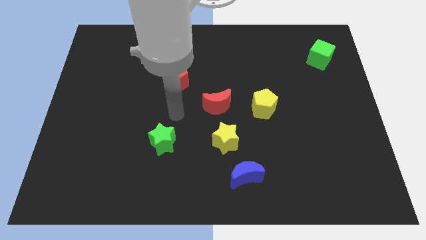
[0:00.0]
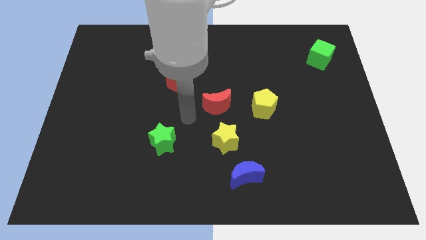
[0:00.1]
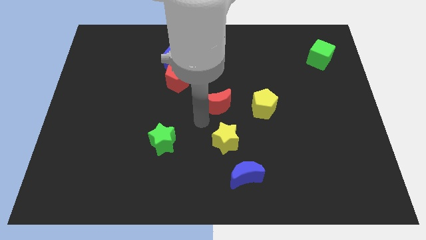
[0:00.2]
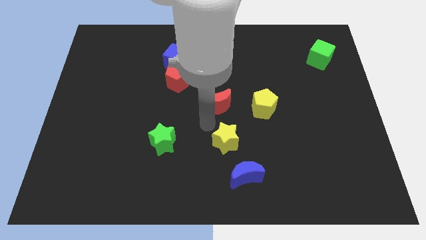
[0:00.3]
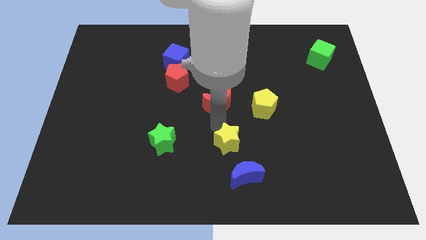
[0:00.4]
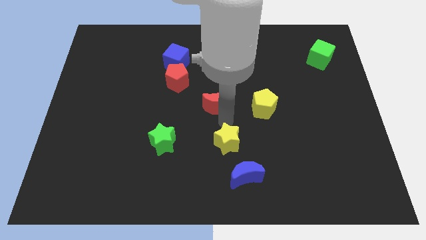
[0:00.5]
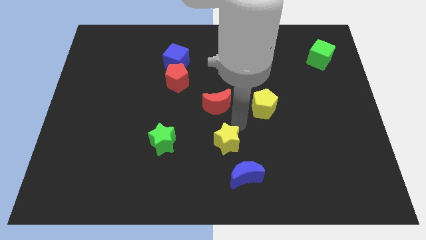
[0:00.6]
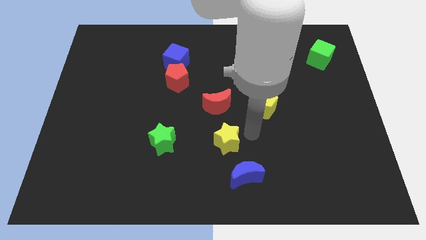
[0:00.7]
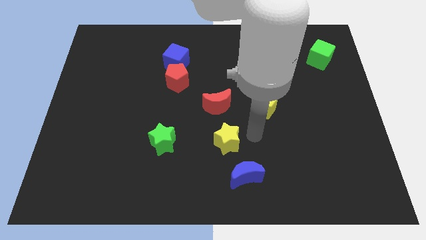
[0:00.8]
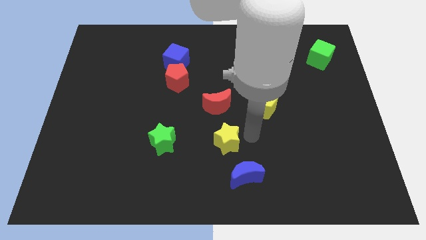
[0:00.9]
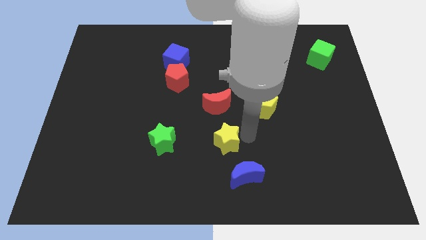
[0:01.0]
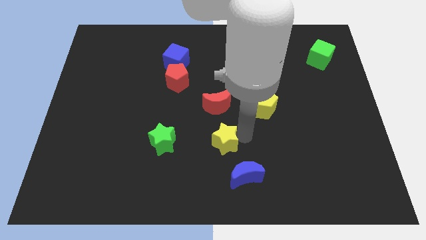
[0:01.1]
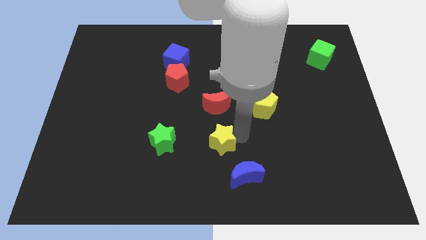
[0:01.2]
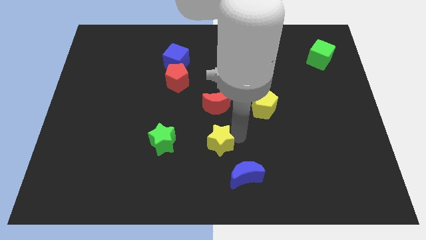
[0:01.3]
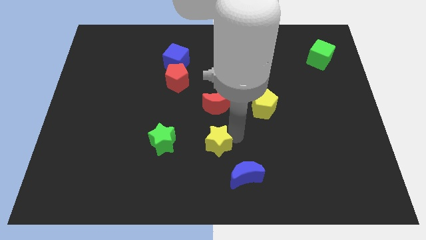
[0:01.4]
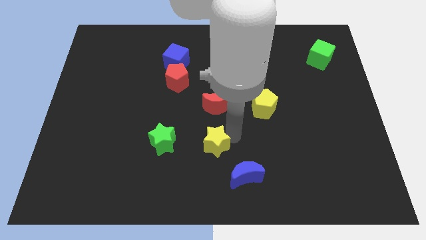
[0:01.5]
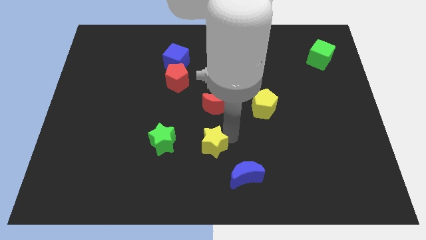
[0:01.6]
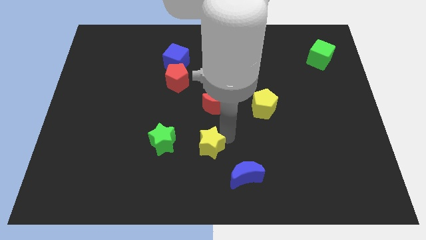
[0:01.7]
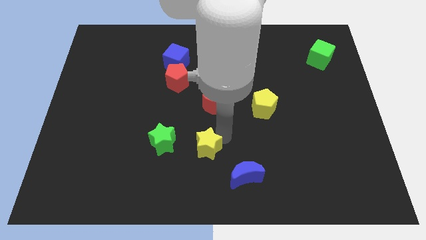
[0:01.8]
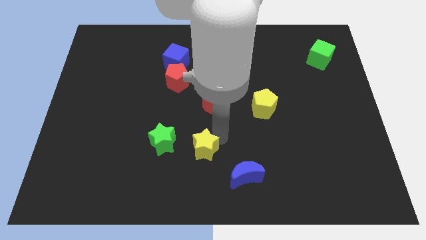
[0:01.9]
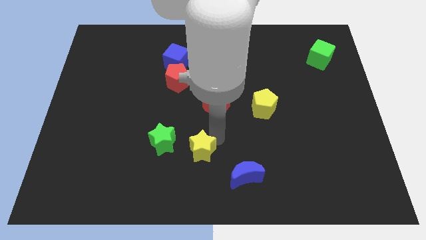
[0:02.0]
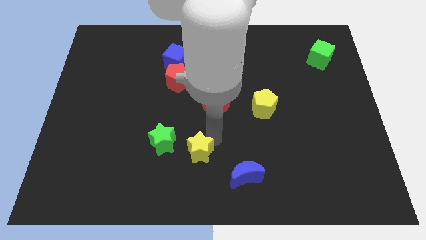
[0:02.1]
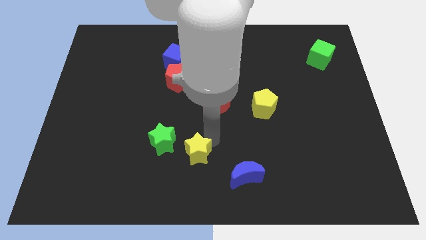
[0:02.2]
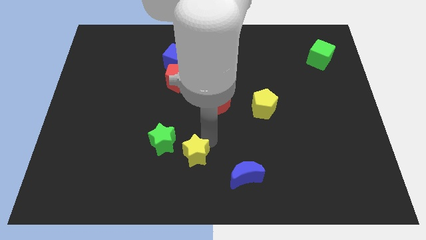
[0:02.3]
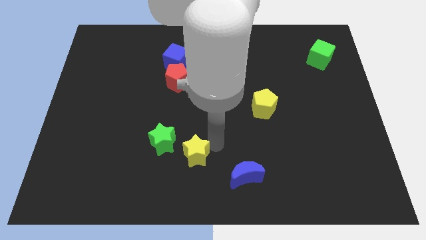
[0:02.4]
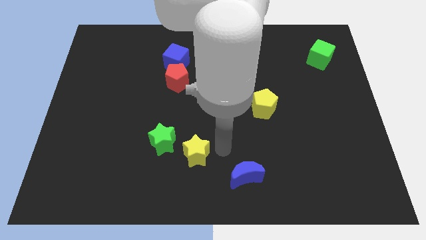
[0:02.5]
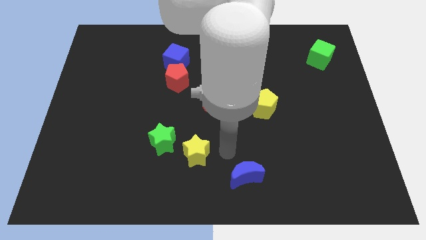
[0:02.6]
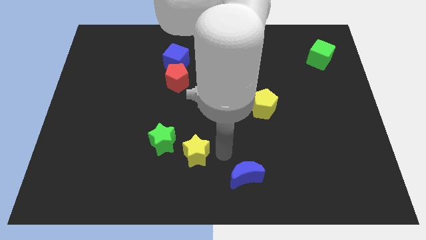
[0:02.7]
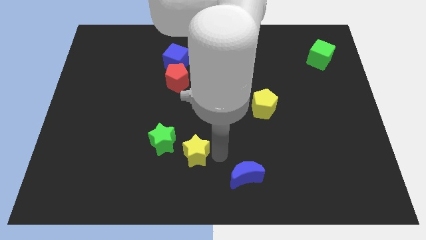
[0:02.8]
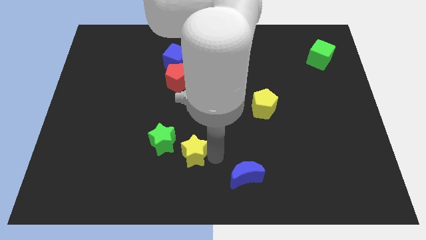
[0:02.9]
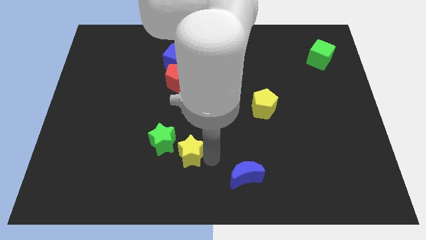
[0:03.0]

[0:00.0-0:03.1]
slightly push the yellow star left

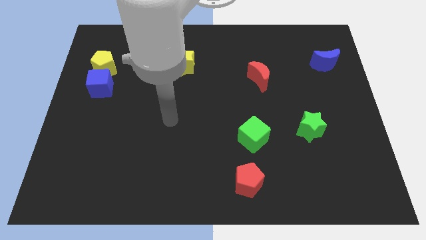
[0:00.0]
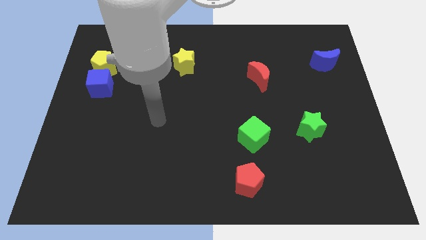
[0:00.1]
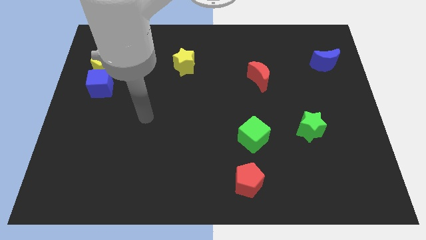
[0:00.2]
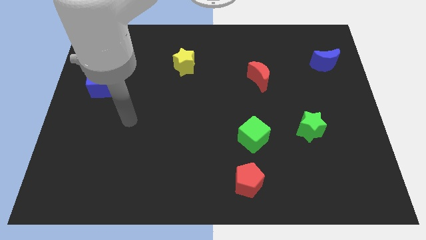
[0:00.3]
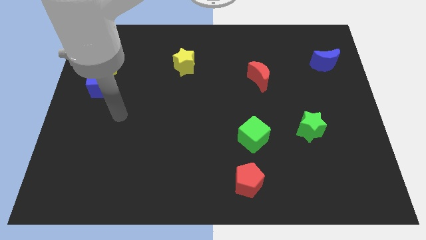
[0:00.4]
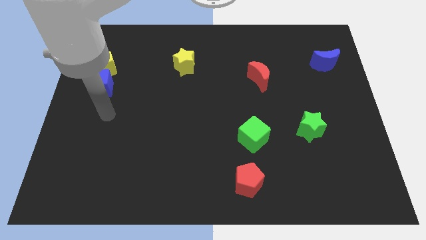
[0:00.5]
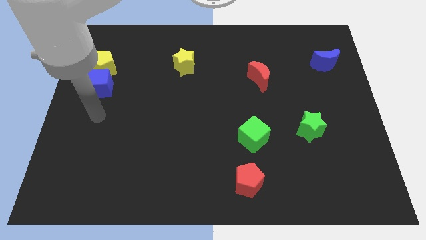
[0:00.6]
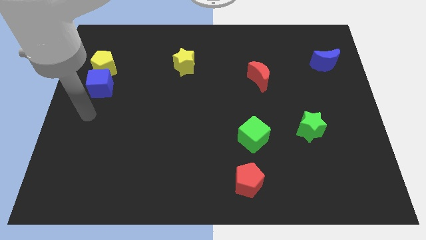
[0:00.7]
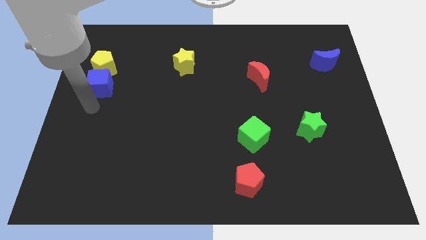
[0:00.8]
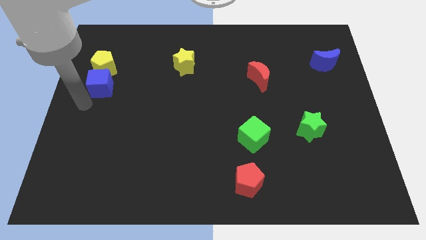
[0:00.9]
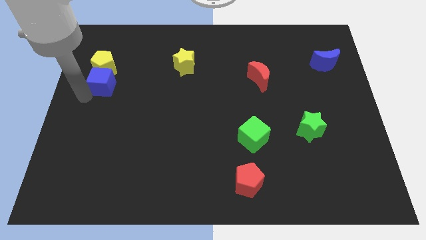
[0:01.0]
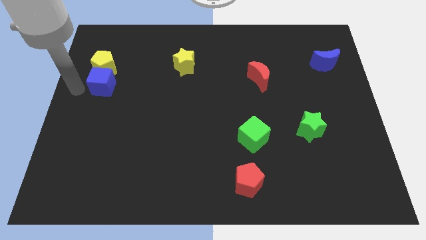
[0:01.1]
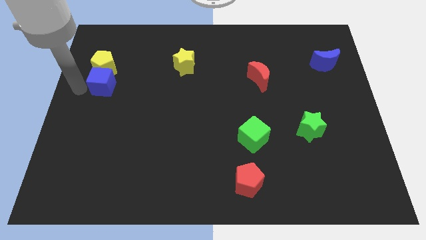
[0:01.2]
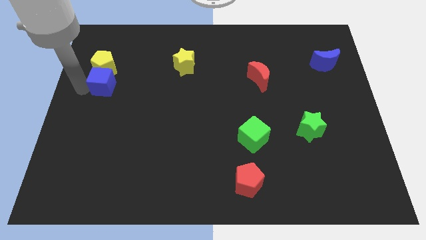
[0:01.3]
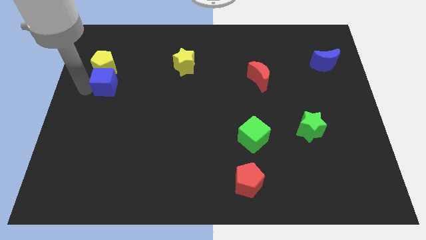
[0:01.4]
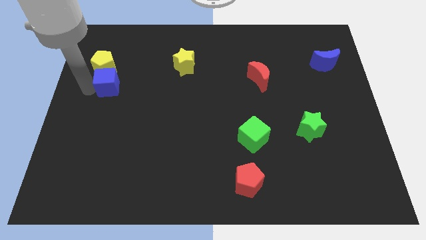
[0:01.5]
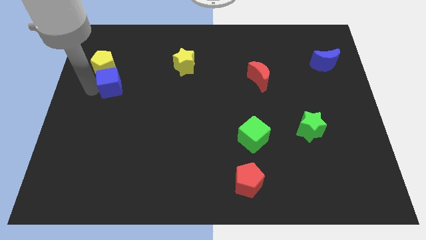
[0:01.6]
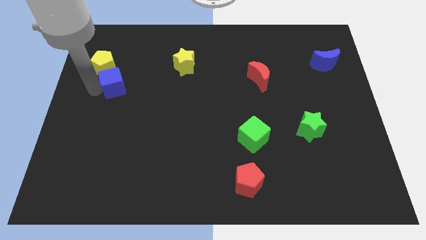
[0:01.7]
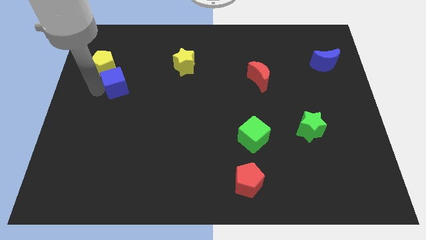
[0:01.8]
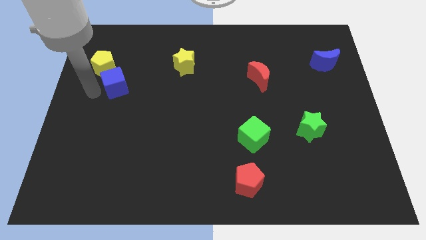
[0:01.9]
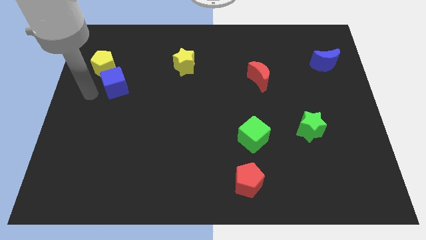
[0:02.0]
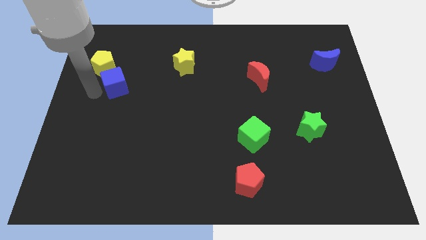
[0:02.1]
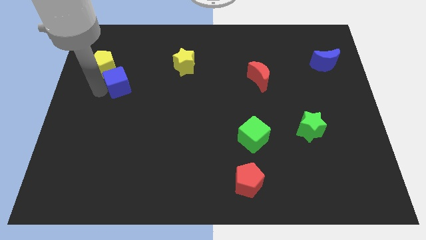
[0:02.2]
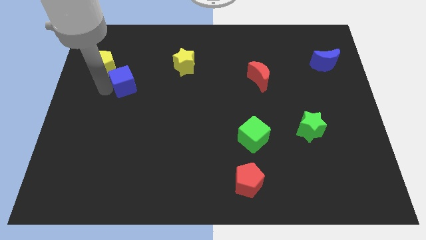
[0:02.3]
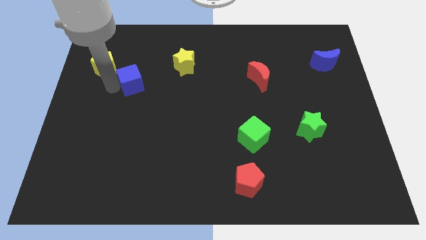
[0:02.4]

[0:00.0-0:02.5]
move the blue cube a little bit to the right

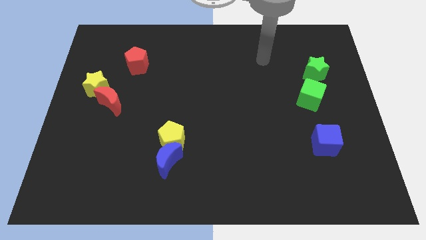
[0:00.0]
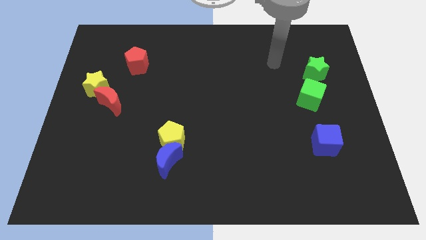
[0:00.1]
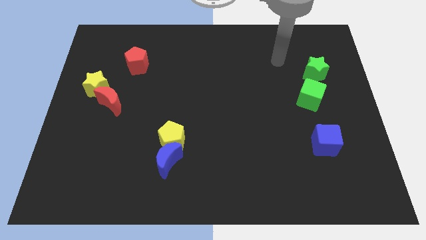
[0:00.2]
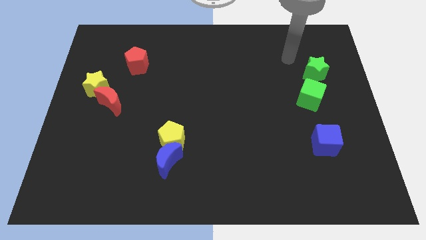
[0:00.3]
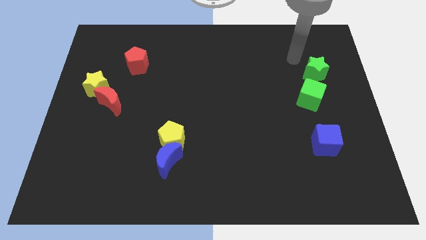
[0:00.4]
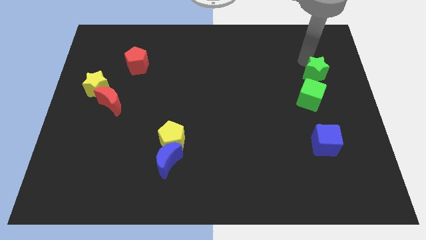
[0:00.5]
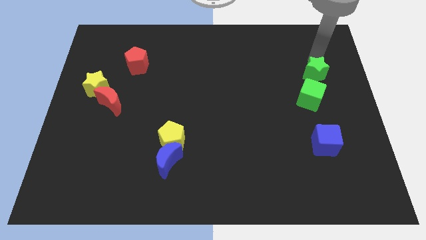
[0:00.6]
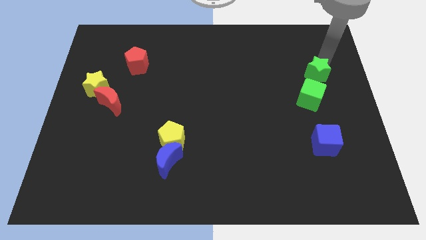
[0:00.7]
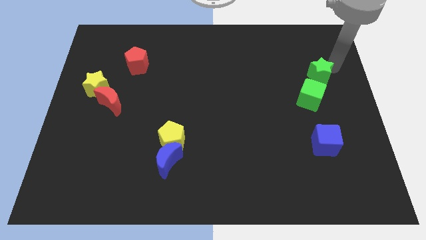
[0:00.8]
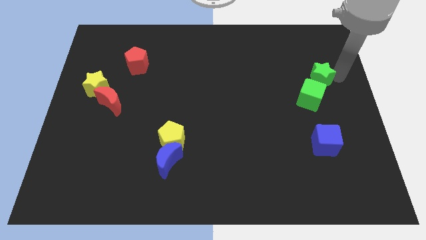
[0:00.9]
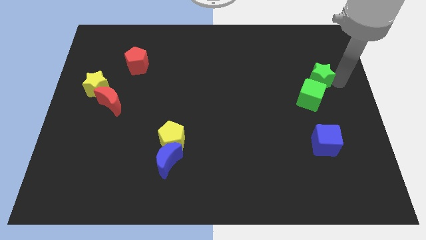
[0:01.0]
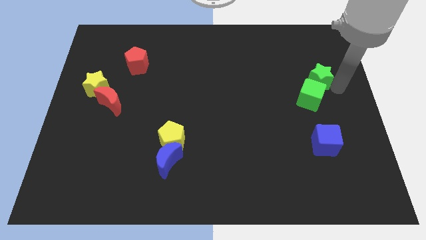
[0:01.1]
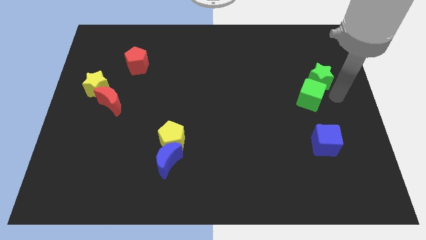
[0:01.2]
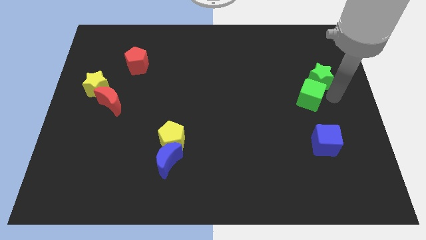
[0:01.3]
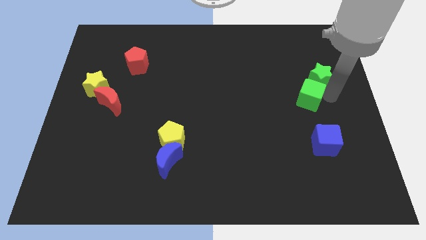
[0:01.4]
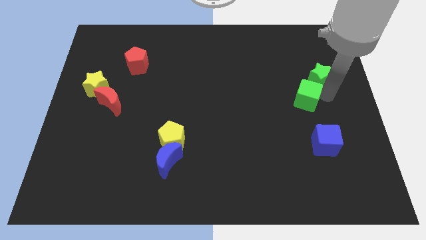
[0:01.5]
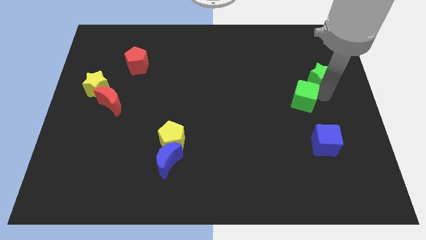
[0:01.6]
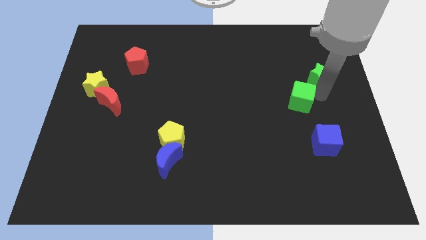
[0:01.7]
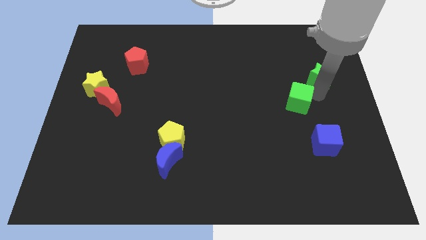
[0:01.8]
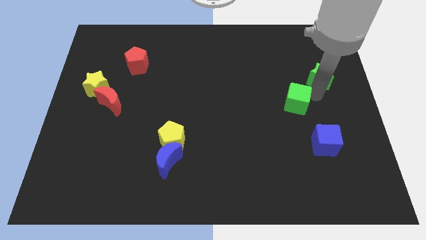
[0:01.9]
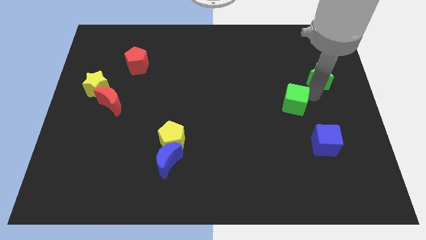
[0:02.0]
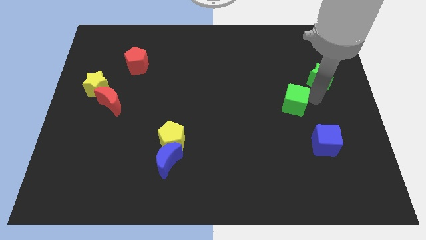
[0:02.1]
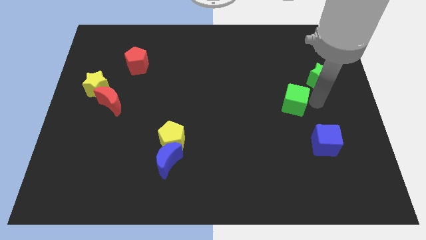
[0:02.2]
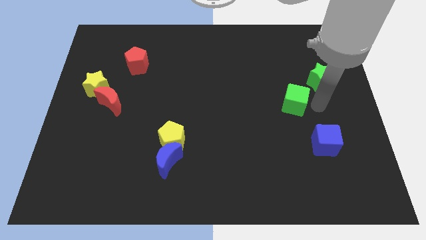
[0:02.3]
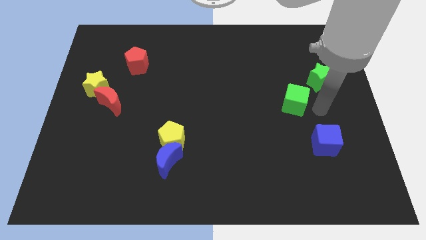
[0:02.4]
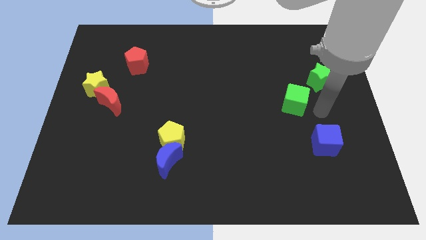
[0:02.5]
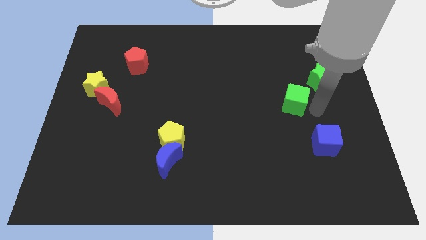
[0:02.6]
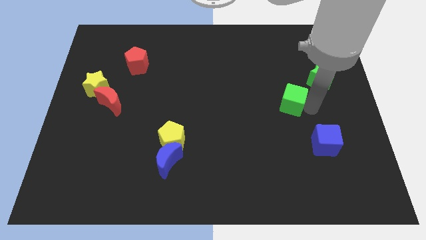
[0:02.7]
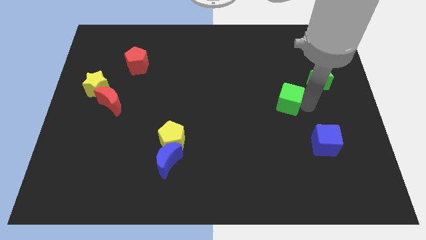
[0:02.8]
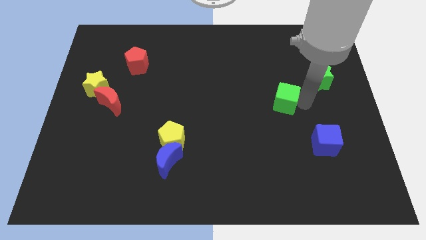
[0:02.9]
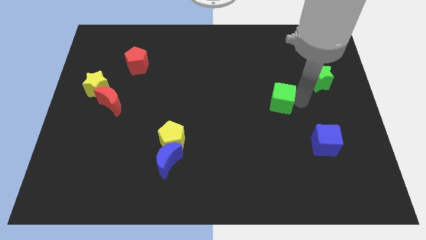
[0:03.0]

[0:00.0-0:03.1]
move the green cube to the left a little bit
